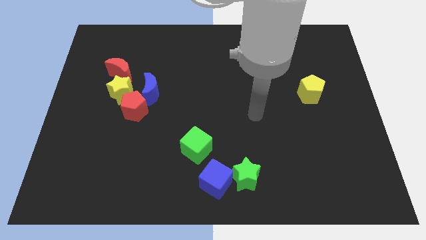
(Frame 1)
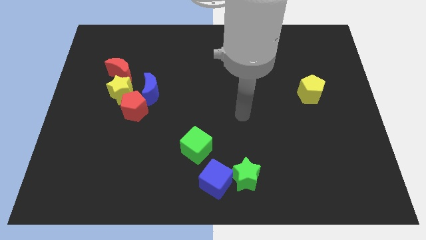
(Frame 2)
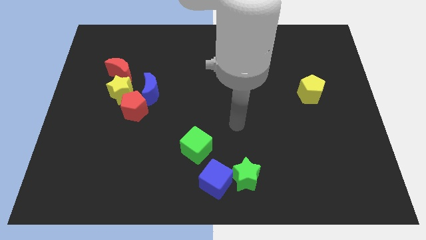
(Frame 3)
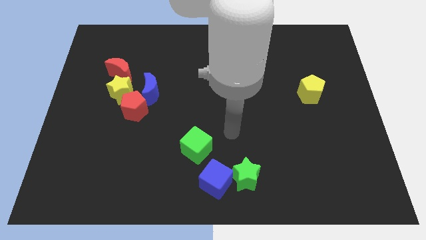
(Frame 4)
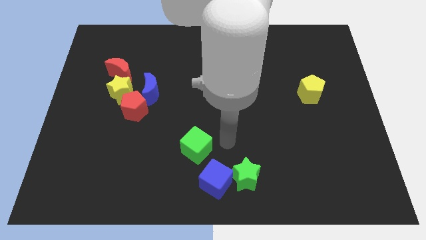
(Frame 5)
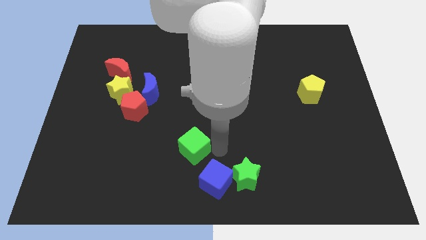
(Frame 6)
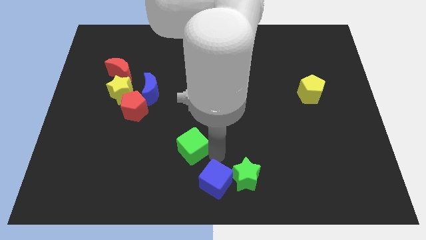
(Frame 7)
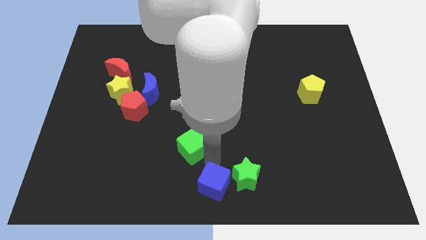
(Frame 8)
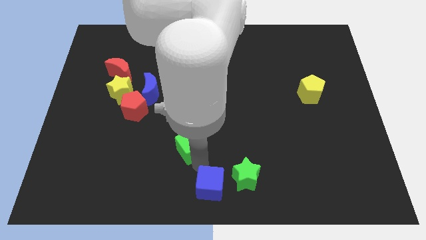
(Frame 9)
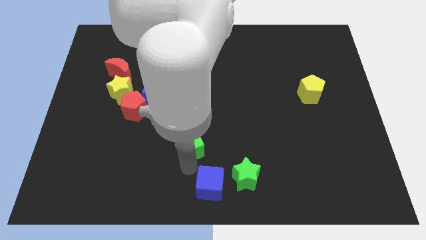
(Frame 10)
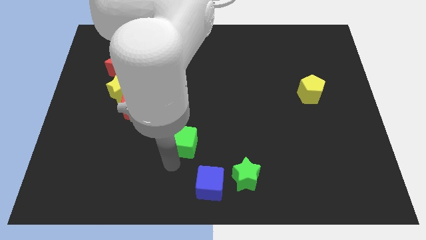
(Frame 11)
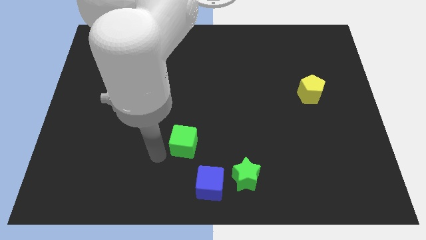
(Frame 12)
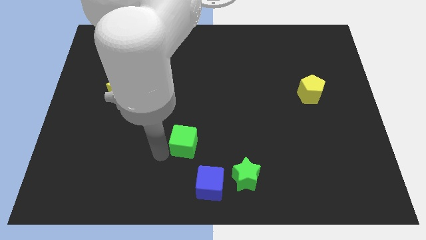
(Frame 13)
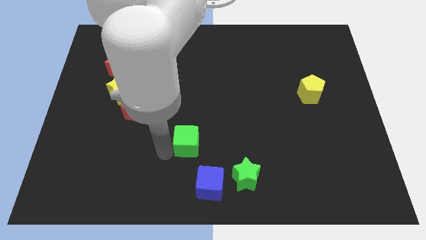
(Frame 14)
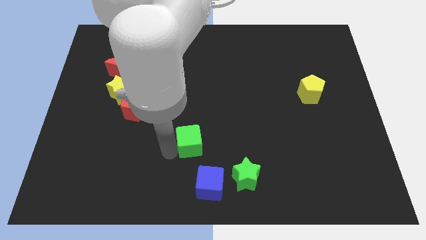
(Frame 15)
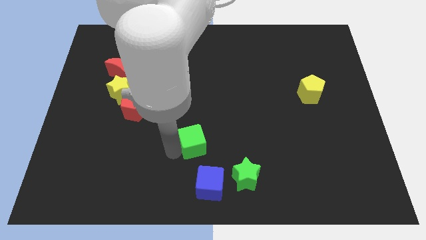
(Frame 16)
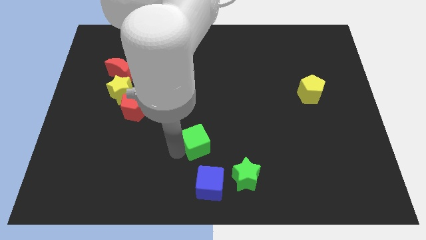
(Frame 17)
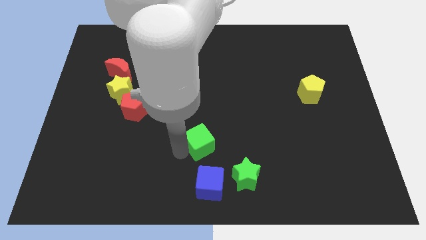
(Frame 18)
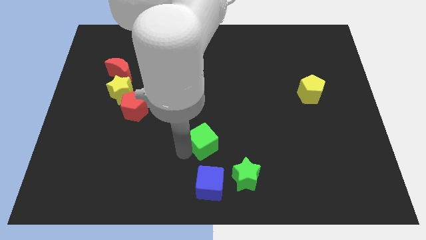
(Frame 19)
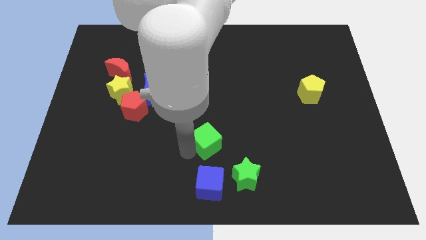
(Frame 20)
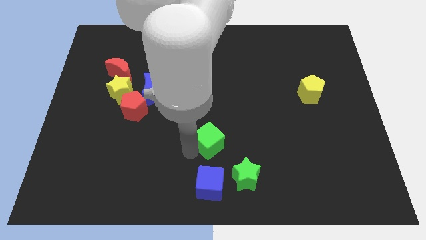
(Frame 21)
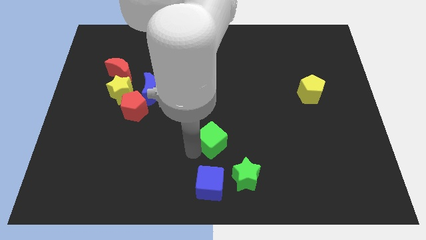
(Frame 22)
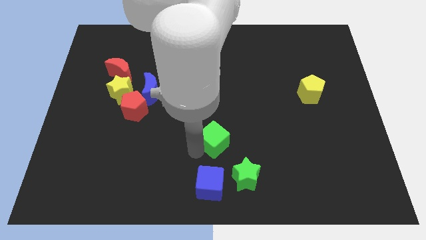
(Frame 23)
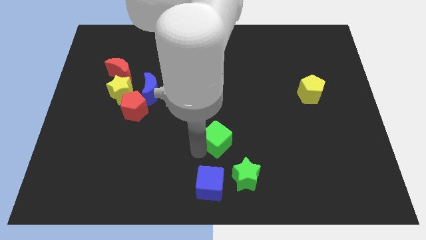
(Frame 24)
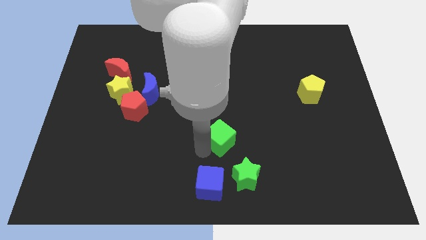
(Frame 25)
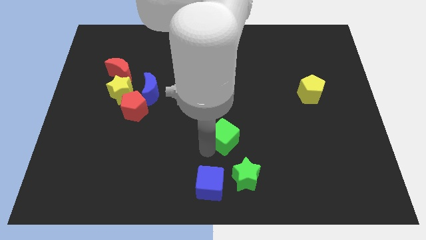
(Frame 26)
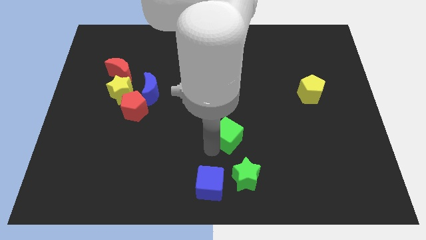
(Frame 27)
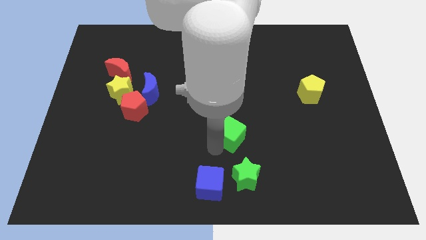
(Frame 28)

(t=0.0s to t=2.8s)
push the green cube slightly up and right

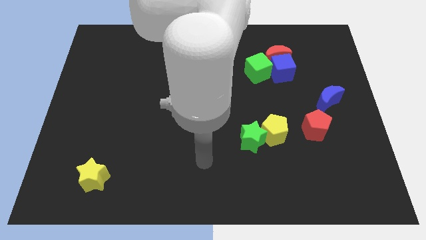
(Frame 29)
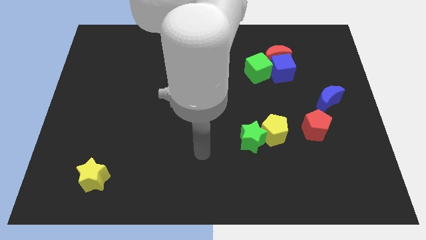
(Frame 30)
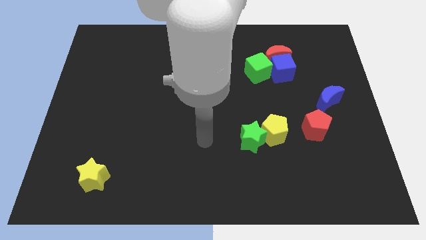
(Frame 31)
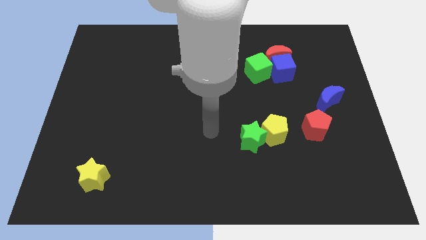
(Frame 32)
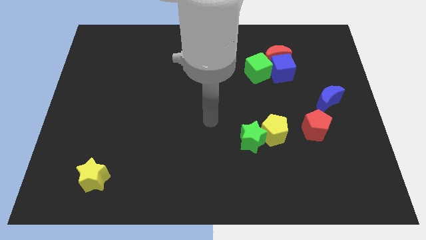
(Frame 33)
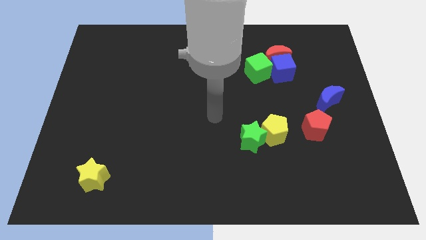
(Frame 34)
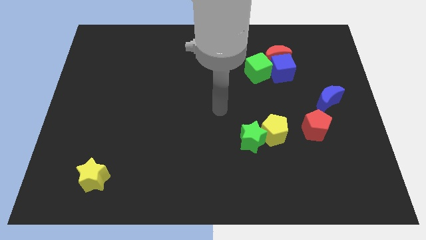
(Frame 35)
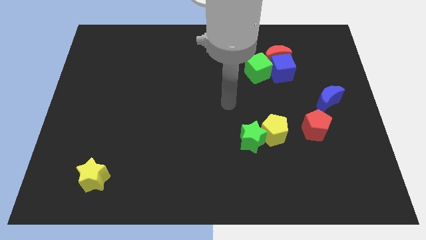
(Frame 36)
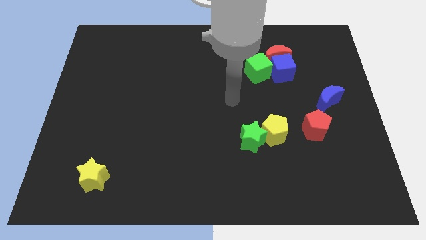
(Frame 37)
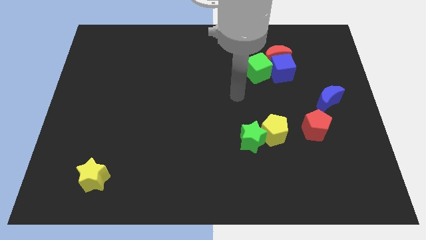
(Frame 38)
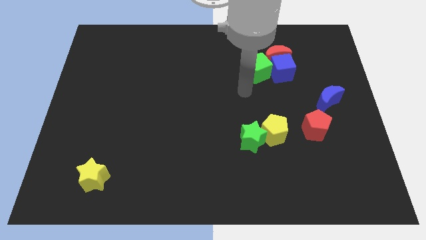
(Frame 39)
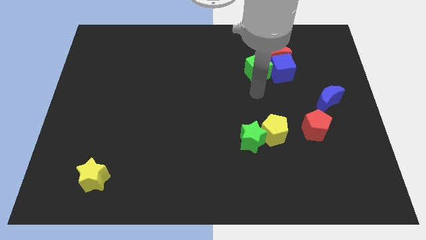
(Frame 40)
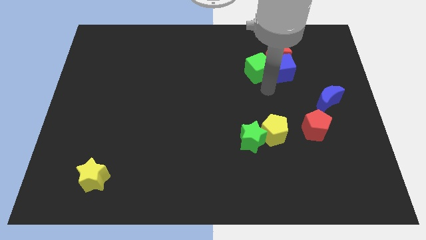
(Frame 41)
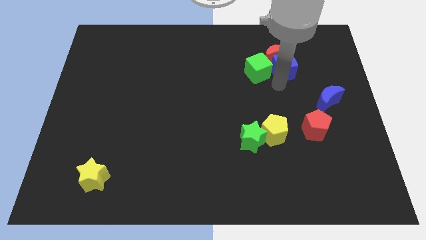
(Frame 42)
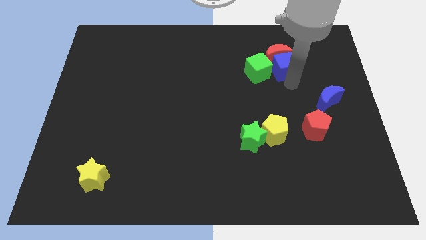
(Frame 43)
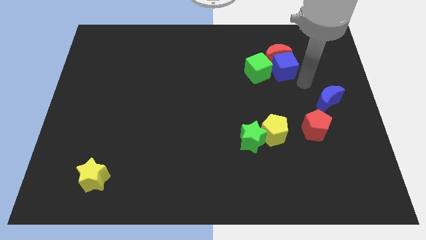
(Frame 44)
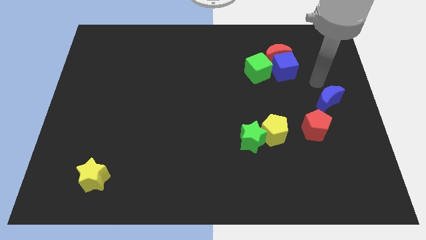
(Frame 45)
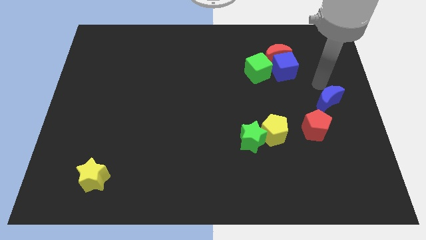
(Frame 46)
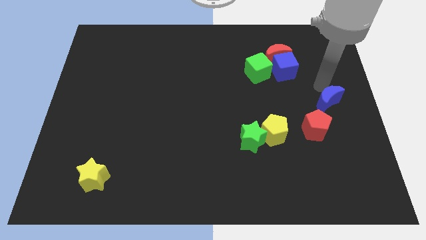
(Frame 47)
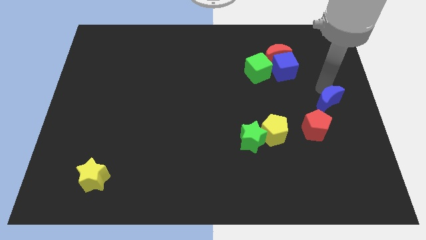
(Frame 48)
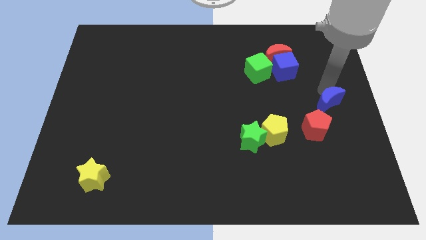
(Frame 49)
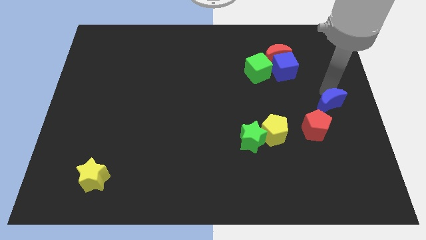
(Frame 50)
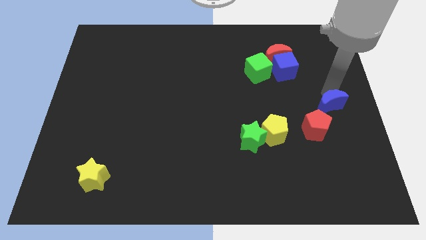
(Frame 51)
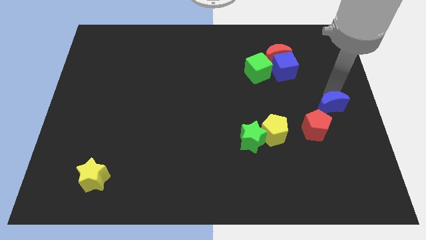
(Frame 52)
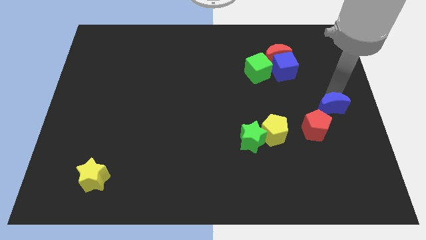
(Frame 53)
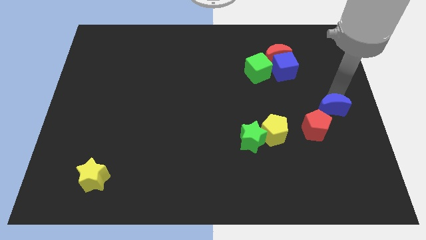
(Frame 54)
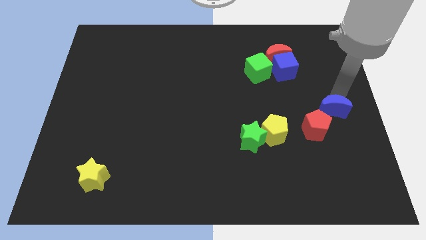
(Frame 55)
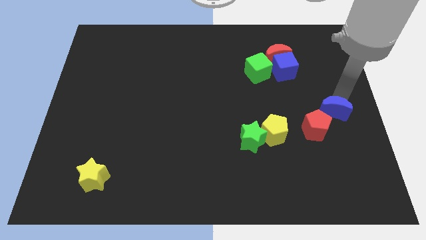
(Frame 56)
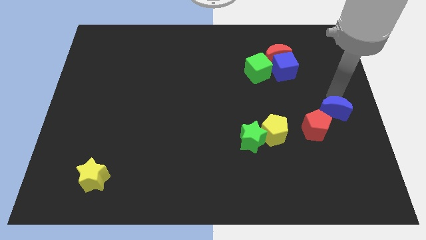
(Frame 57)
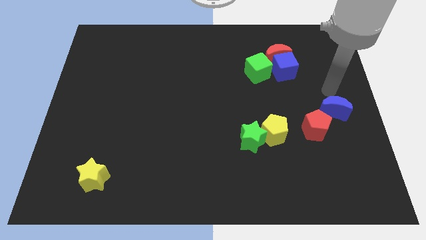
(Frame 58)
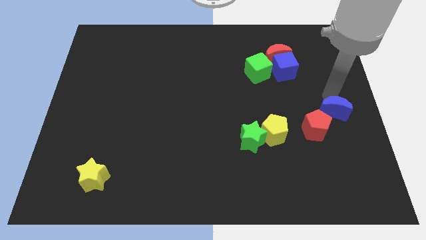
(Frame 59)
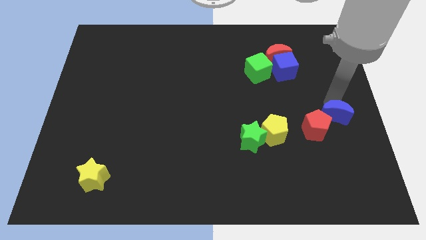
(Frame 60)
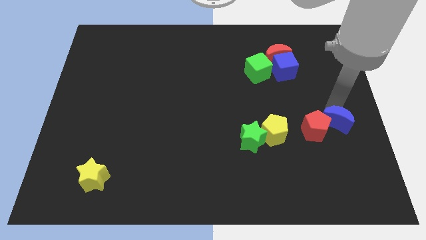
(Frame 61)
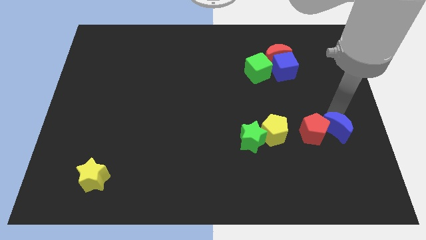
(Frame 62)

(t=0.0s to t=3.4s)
slide the blue moon somewhat downwards

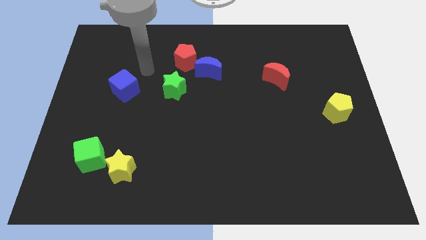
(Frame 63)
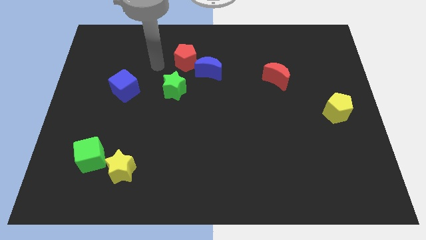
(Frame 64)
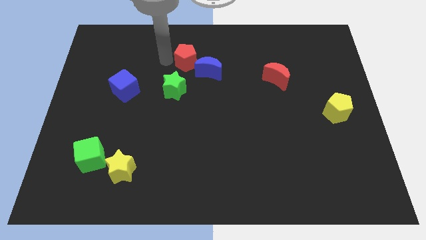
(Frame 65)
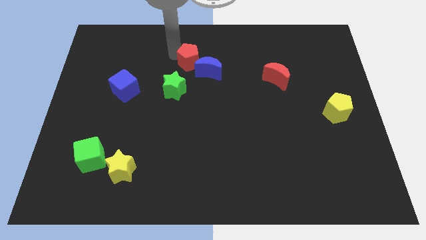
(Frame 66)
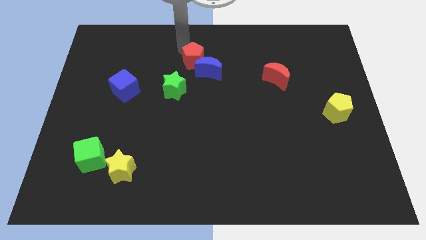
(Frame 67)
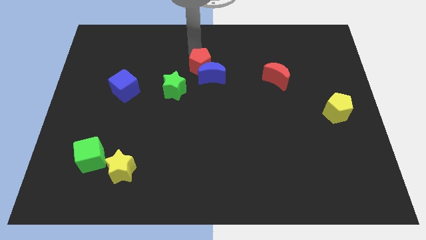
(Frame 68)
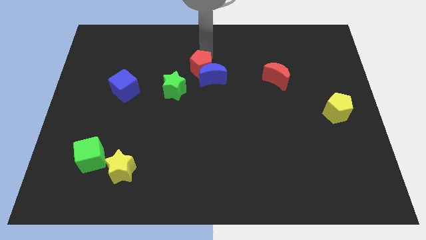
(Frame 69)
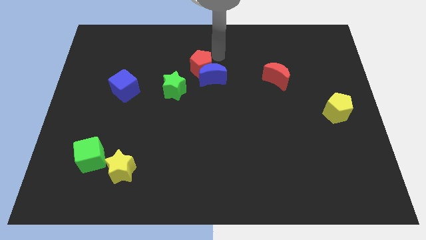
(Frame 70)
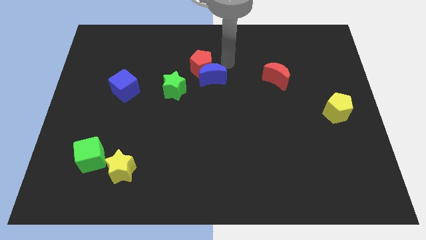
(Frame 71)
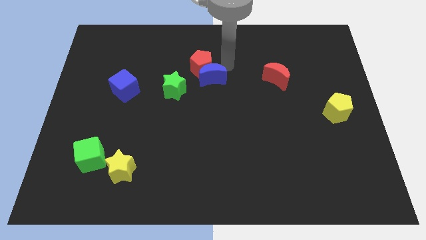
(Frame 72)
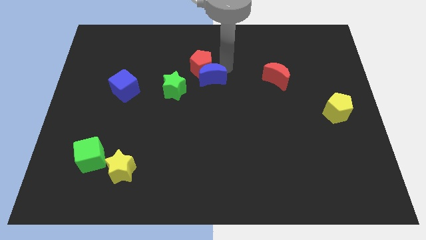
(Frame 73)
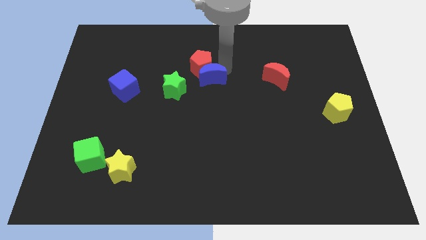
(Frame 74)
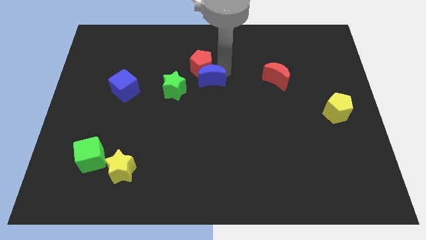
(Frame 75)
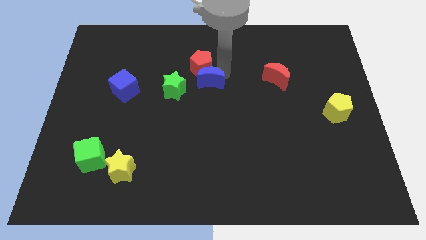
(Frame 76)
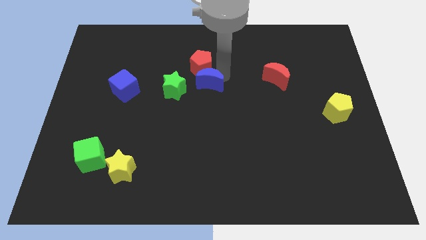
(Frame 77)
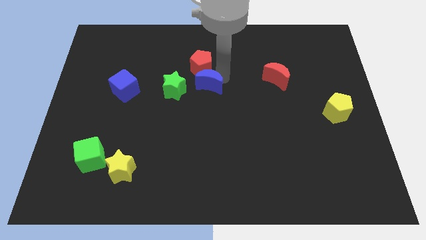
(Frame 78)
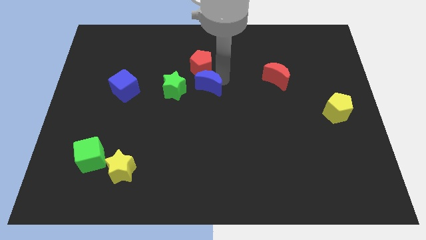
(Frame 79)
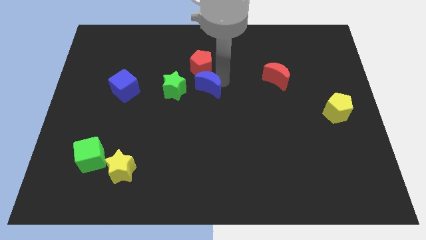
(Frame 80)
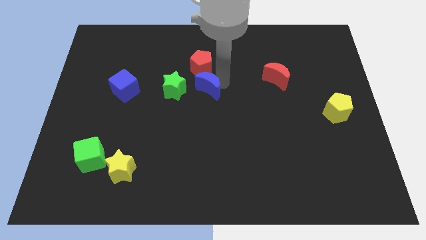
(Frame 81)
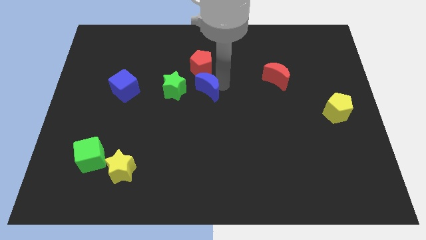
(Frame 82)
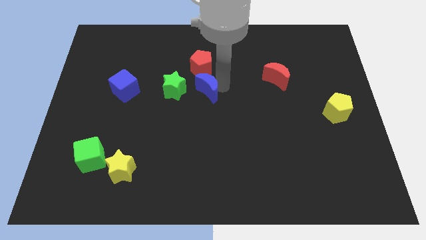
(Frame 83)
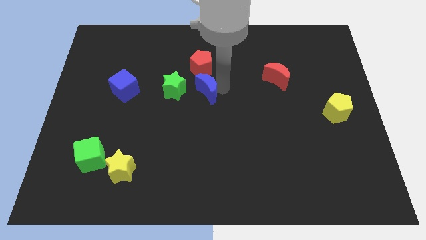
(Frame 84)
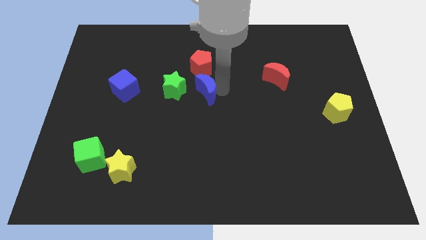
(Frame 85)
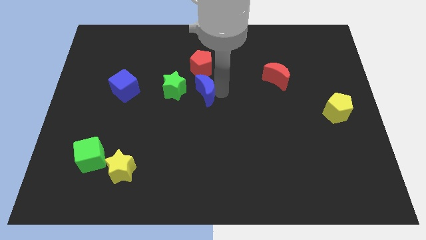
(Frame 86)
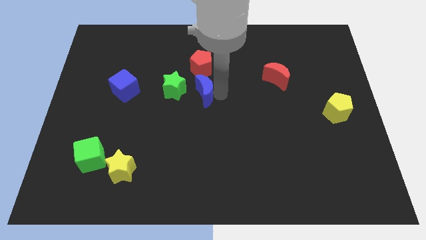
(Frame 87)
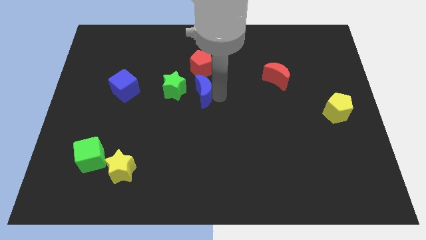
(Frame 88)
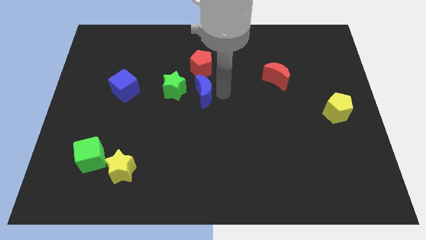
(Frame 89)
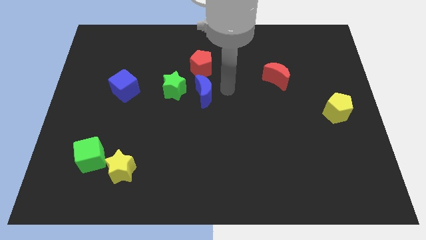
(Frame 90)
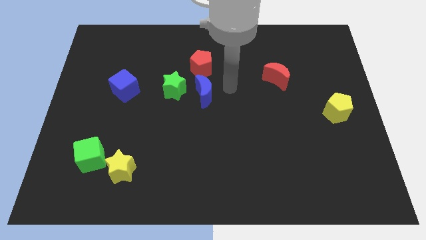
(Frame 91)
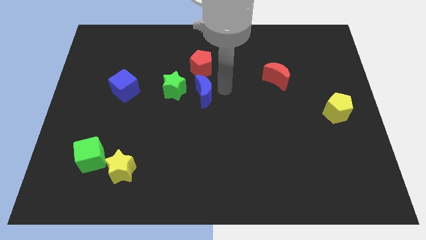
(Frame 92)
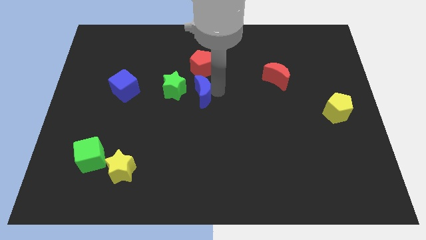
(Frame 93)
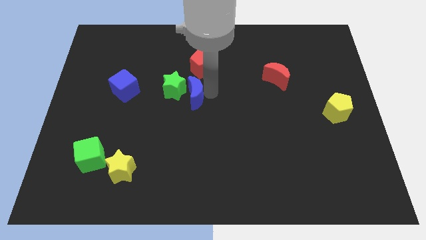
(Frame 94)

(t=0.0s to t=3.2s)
move the blue moon diagonally downwards and to the left somewhat
